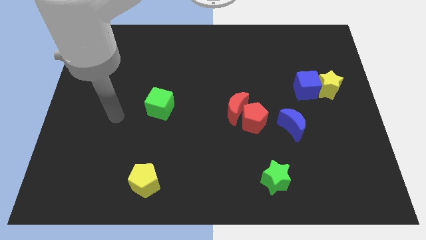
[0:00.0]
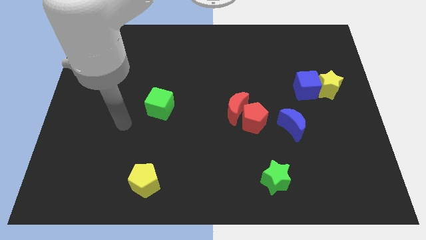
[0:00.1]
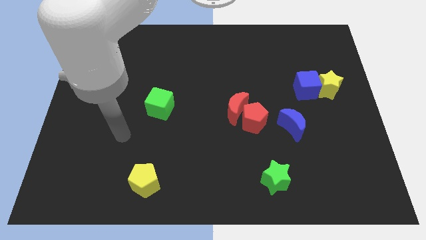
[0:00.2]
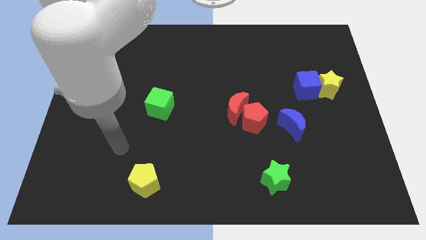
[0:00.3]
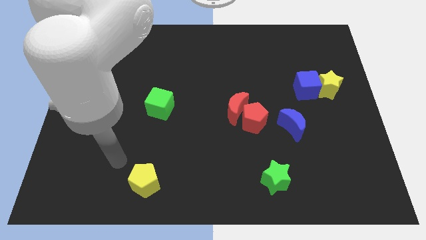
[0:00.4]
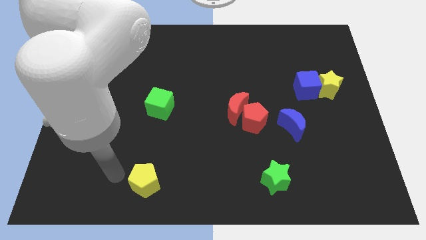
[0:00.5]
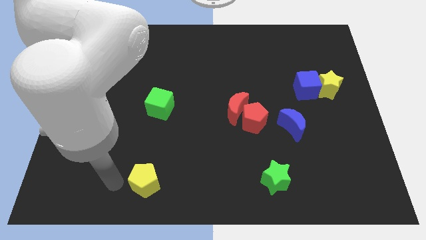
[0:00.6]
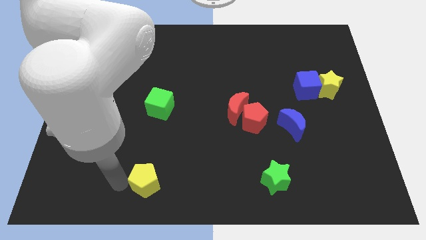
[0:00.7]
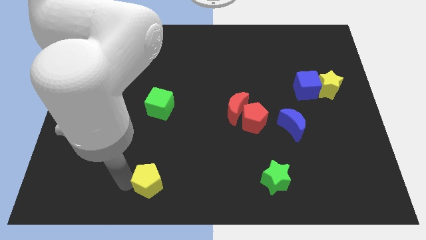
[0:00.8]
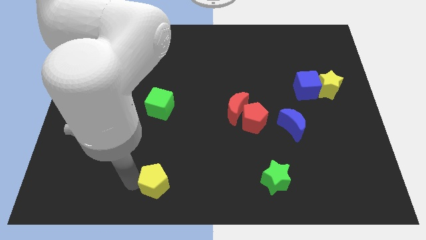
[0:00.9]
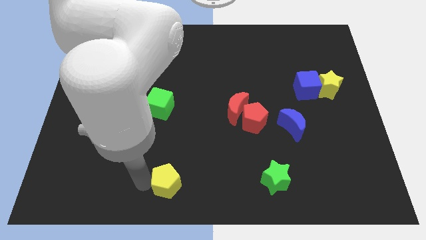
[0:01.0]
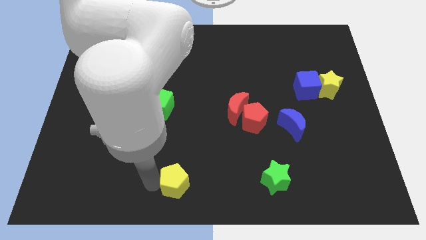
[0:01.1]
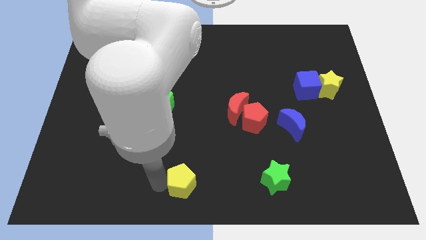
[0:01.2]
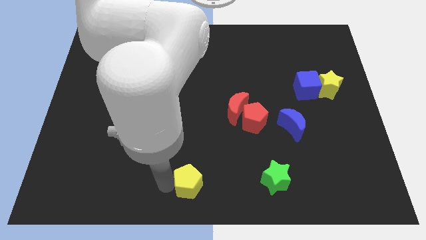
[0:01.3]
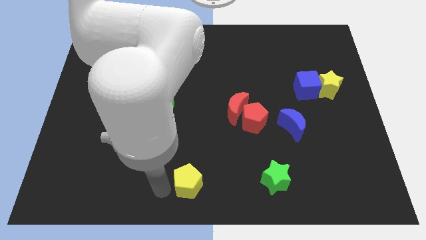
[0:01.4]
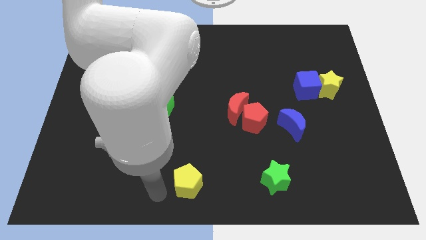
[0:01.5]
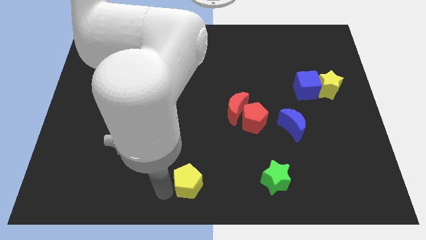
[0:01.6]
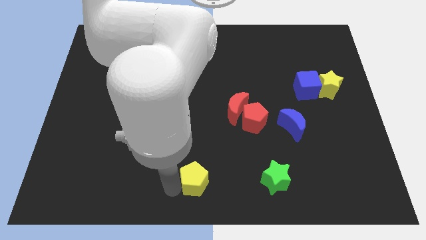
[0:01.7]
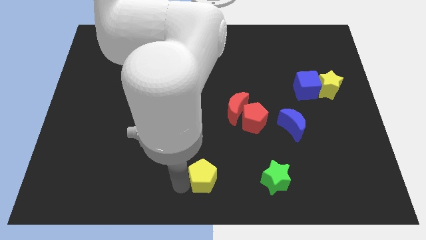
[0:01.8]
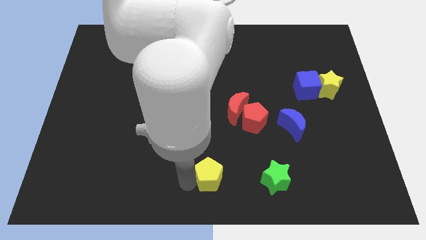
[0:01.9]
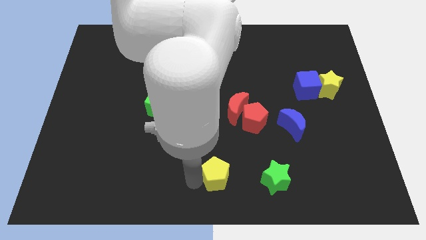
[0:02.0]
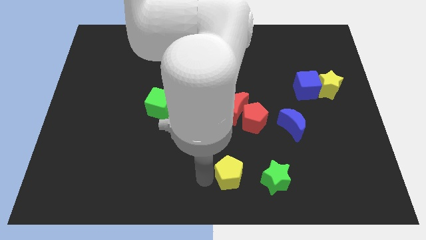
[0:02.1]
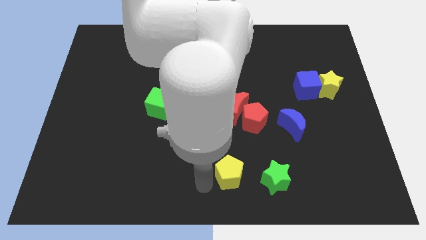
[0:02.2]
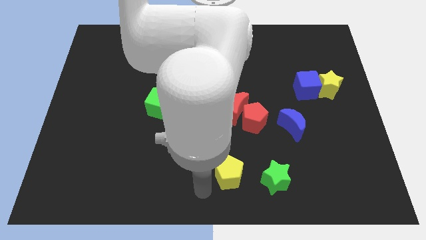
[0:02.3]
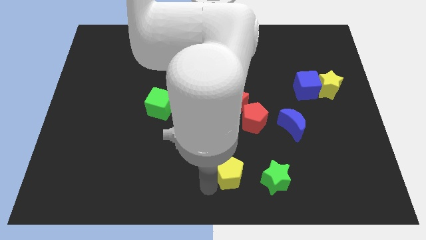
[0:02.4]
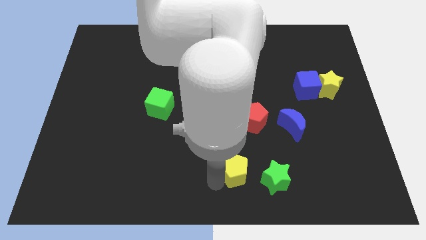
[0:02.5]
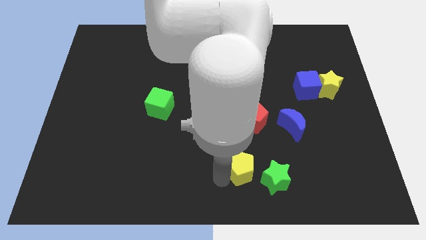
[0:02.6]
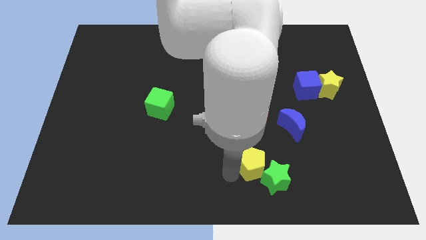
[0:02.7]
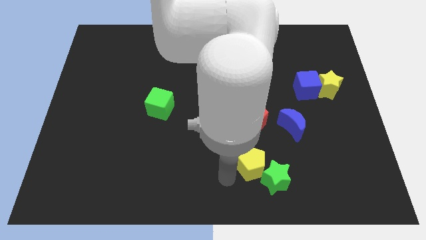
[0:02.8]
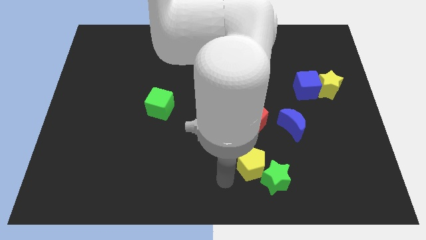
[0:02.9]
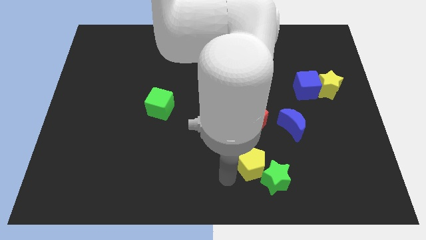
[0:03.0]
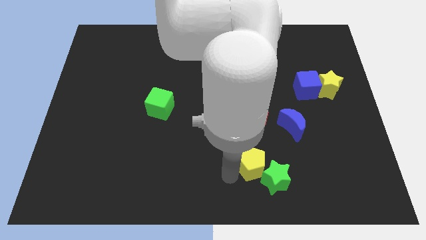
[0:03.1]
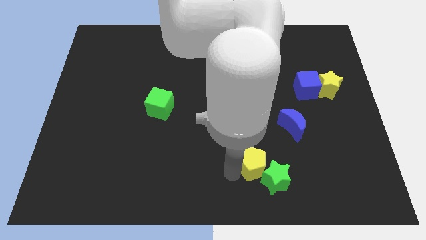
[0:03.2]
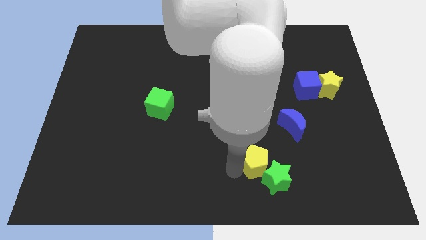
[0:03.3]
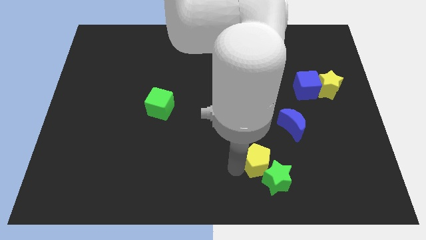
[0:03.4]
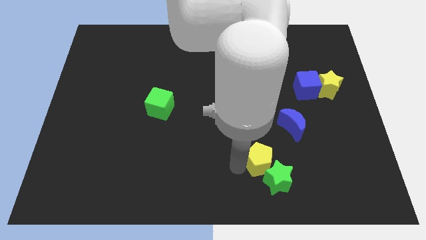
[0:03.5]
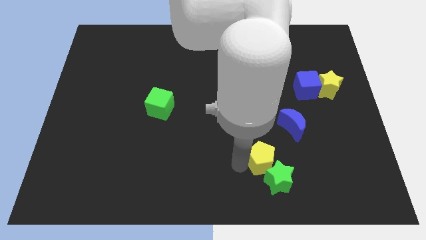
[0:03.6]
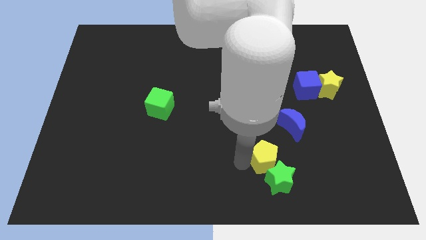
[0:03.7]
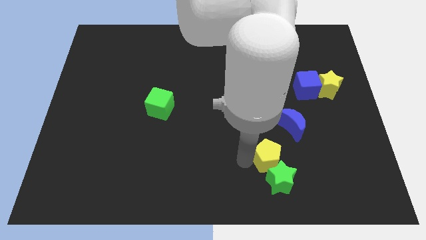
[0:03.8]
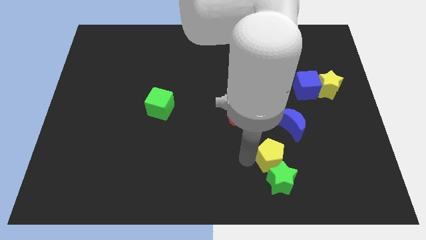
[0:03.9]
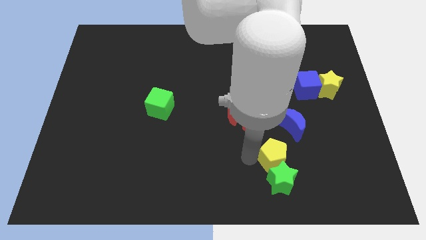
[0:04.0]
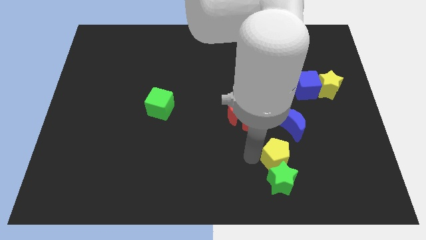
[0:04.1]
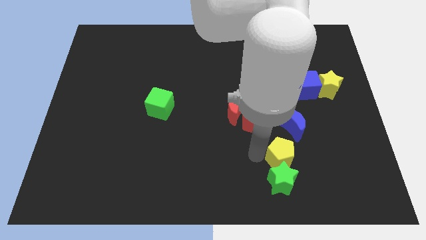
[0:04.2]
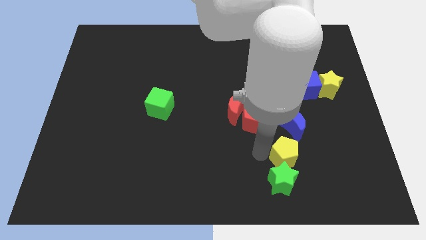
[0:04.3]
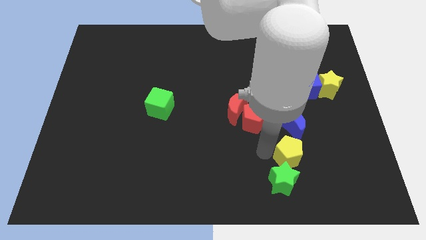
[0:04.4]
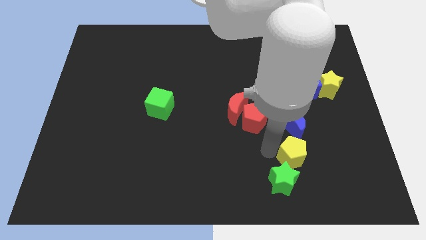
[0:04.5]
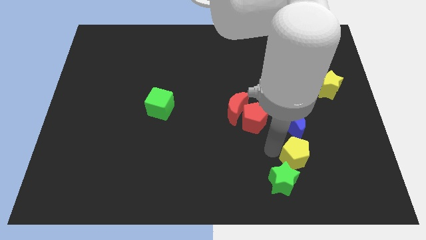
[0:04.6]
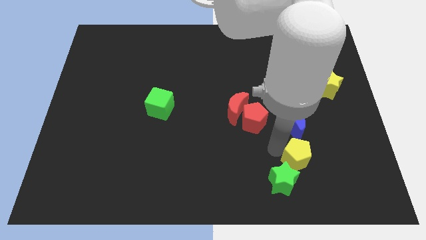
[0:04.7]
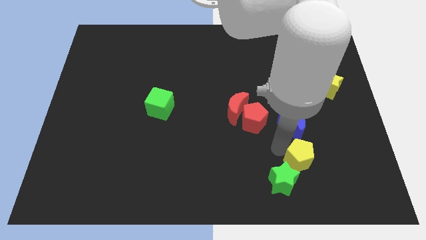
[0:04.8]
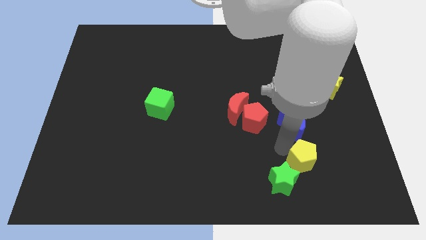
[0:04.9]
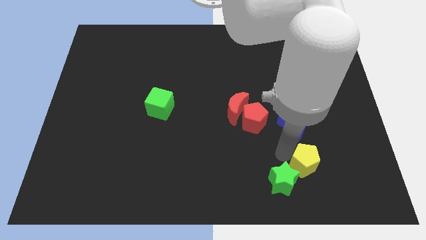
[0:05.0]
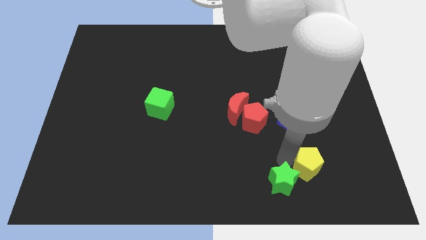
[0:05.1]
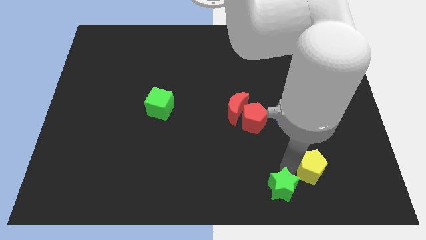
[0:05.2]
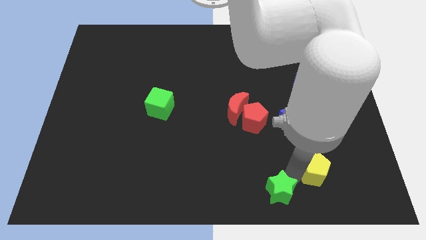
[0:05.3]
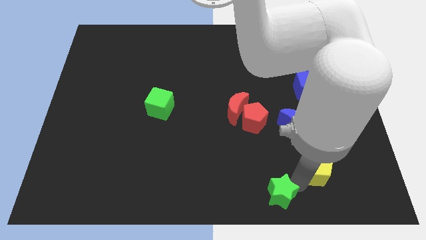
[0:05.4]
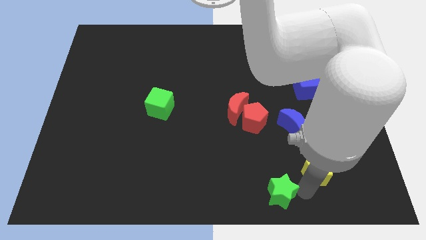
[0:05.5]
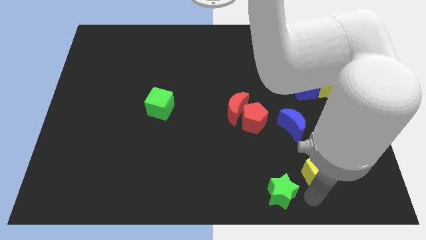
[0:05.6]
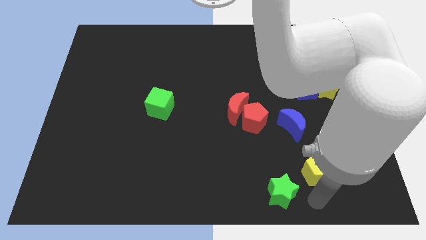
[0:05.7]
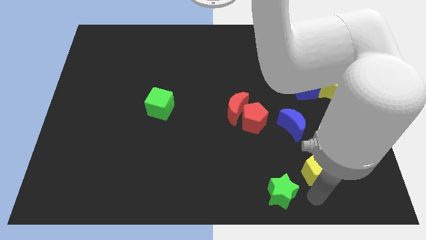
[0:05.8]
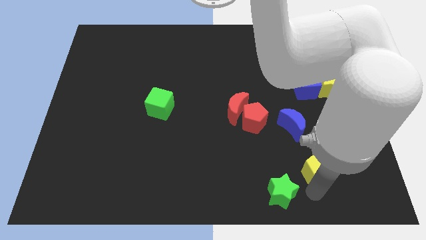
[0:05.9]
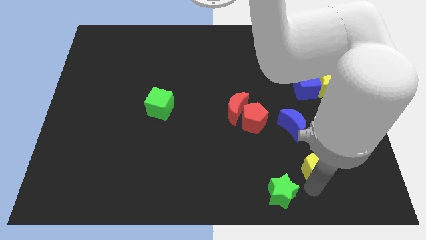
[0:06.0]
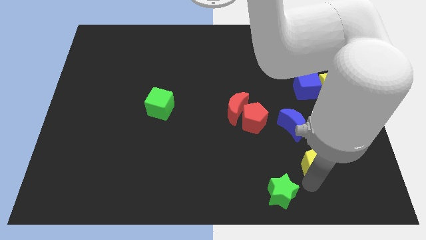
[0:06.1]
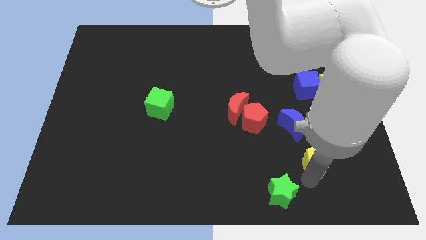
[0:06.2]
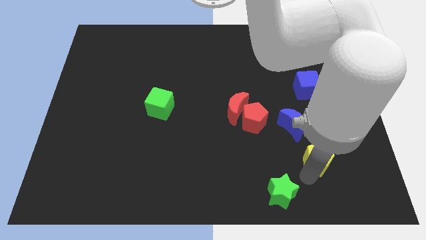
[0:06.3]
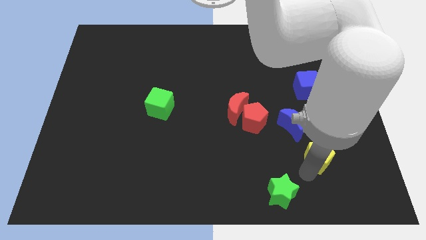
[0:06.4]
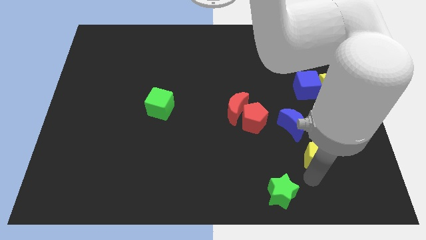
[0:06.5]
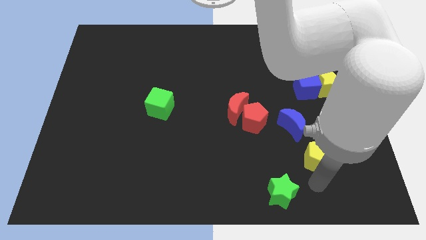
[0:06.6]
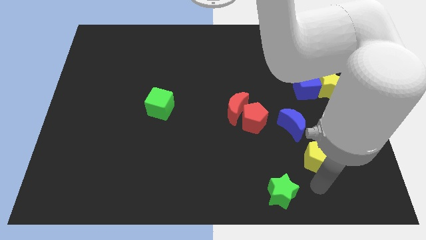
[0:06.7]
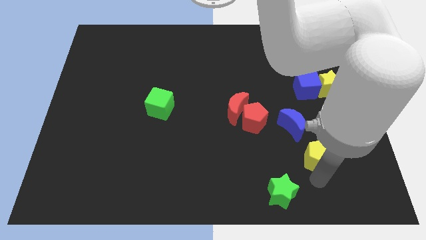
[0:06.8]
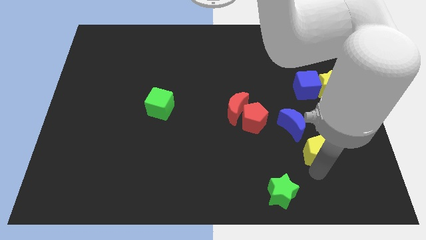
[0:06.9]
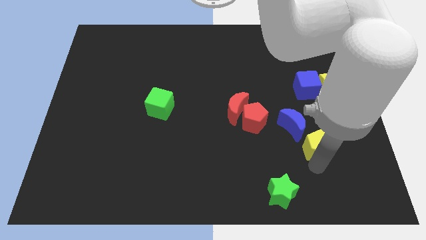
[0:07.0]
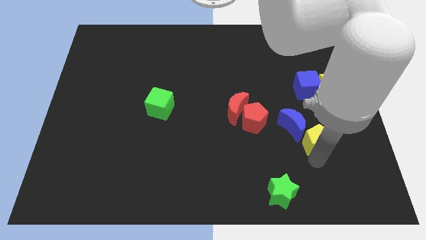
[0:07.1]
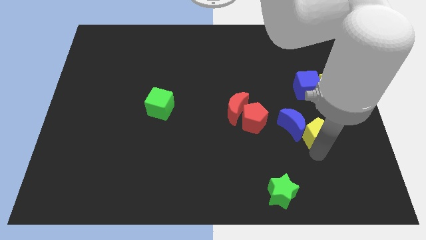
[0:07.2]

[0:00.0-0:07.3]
move the yellow pentagon just right of the red pentagon
